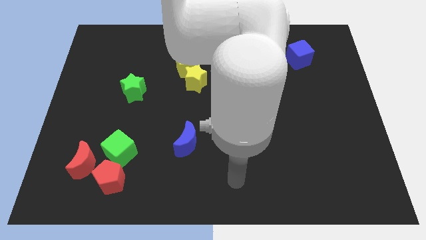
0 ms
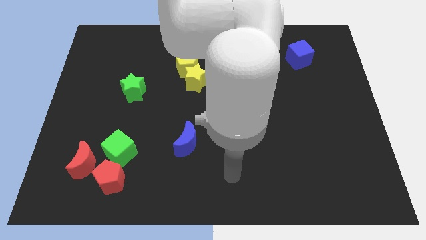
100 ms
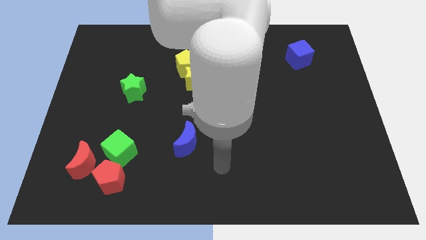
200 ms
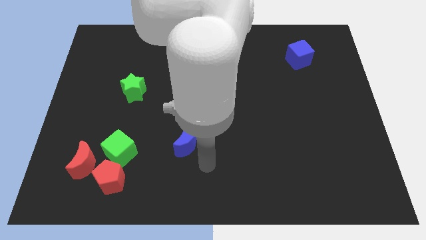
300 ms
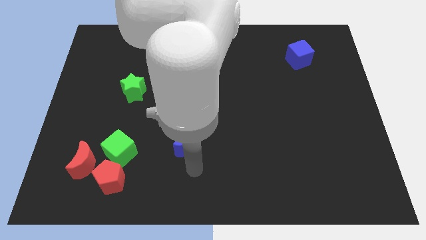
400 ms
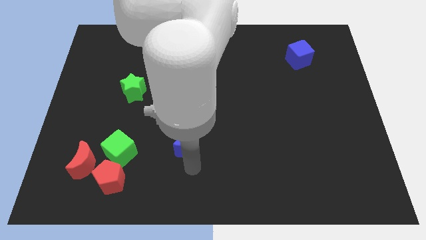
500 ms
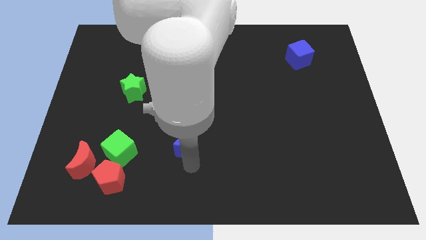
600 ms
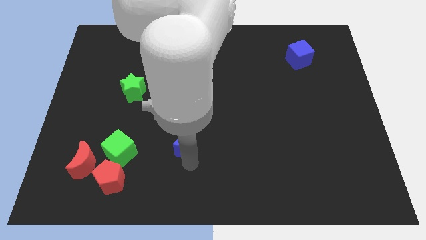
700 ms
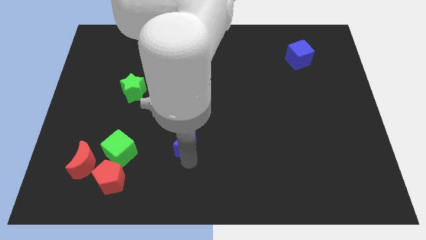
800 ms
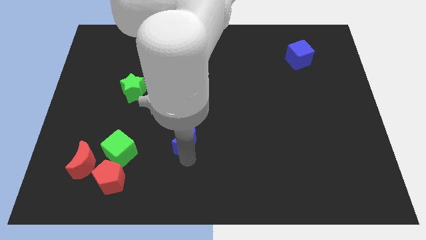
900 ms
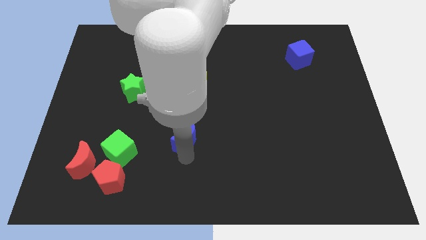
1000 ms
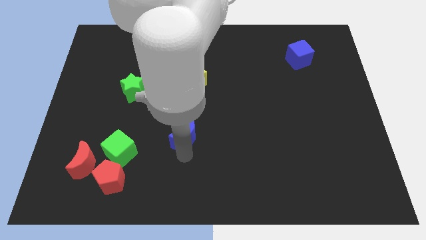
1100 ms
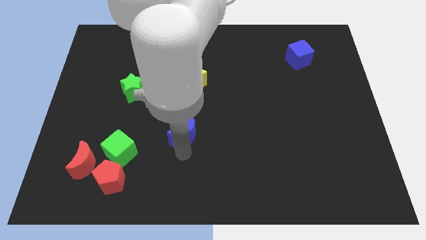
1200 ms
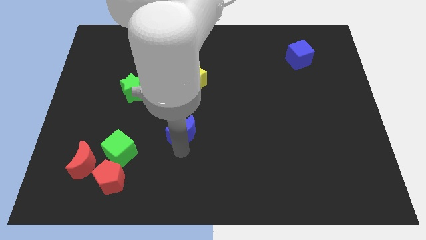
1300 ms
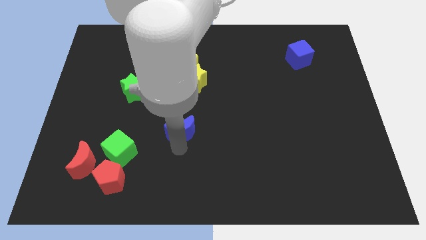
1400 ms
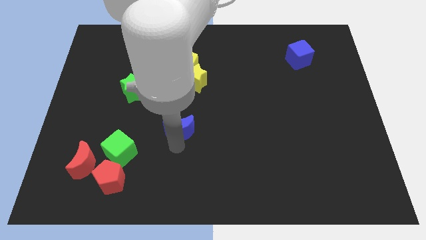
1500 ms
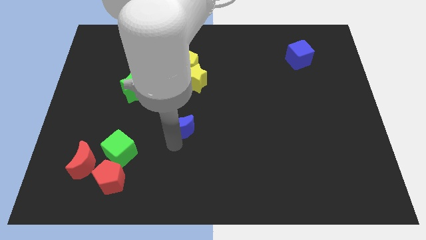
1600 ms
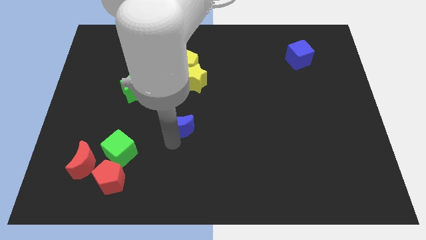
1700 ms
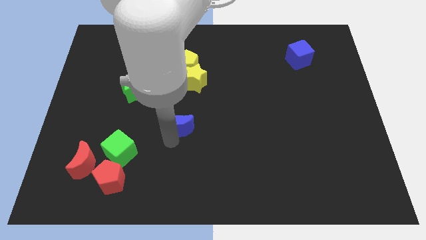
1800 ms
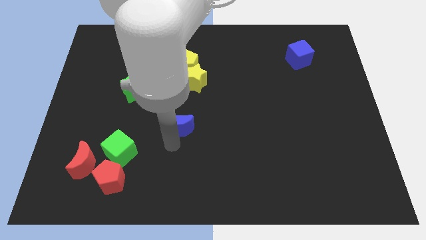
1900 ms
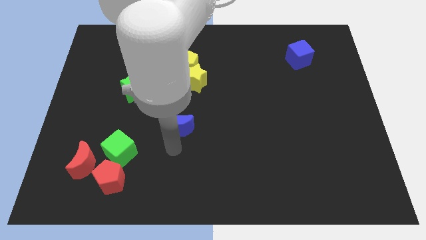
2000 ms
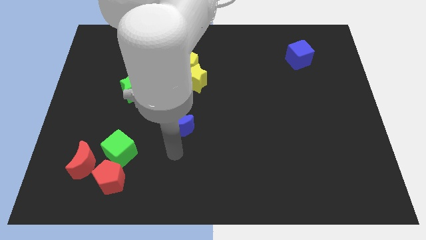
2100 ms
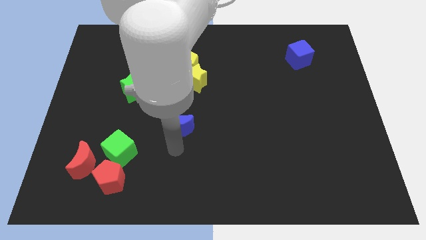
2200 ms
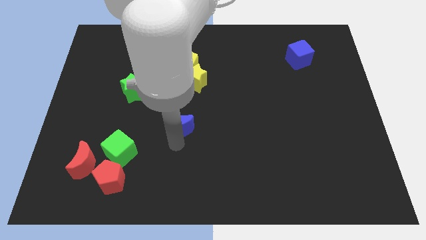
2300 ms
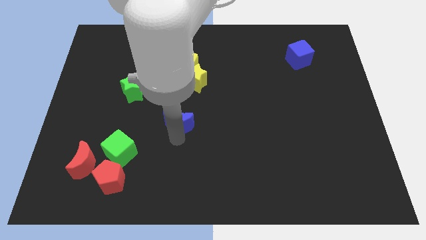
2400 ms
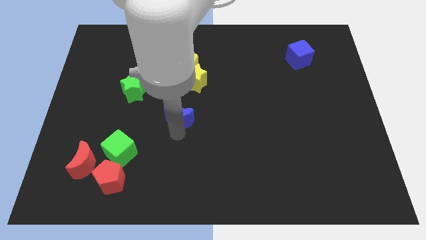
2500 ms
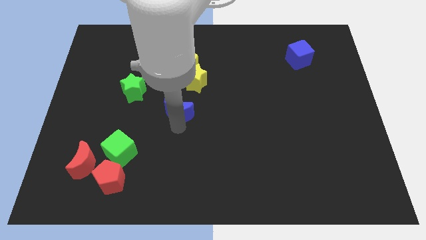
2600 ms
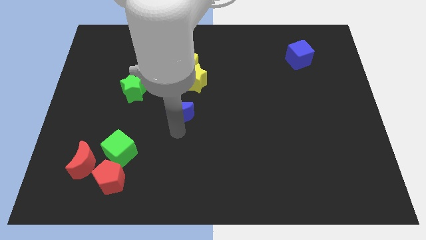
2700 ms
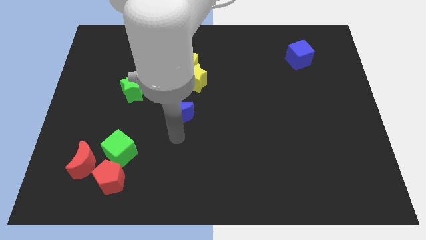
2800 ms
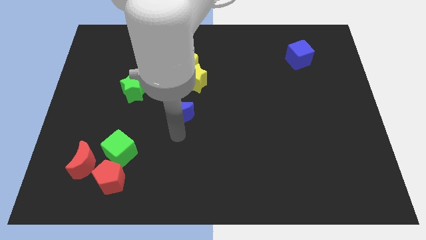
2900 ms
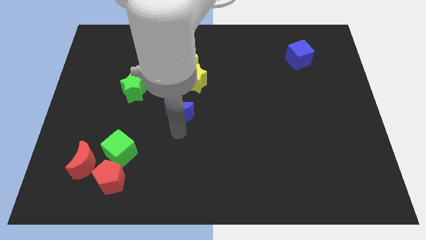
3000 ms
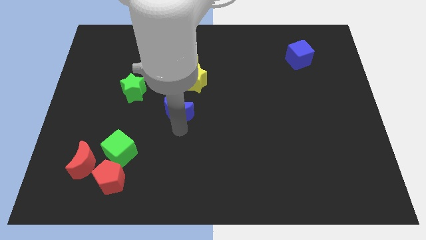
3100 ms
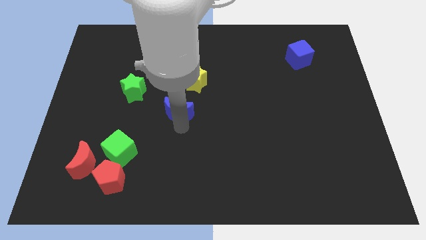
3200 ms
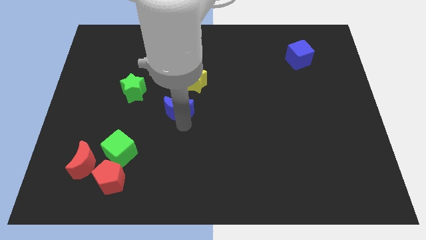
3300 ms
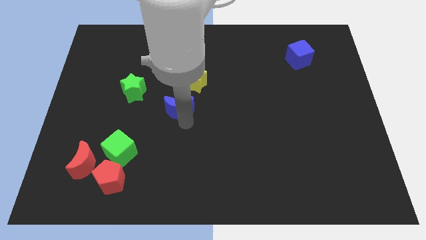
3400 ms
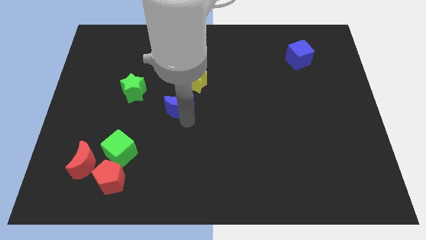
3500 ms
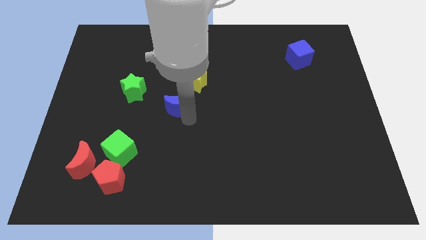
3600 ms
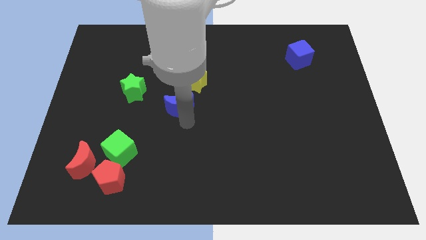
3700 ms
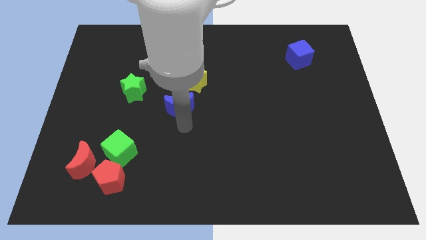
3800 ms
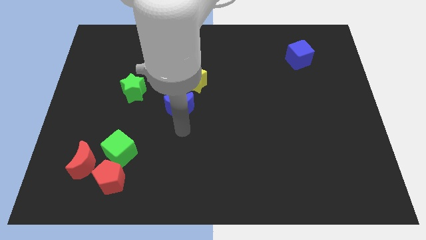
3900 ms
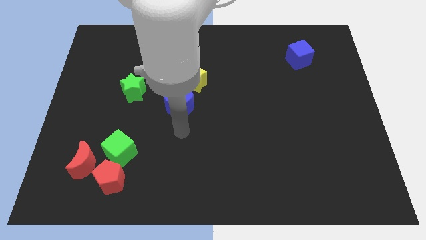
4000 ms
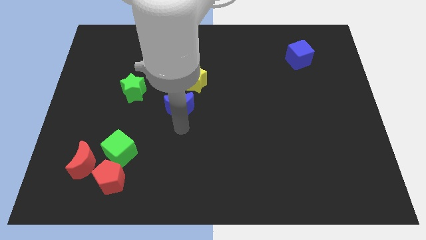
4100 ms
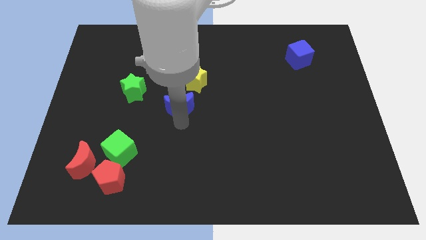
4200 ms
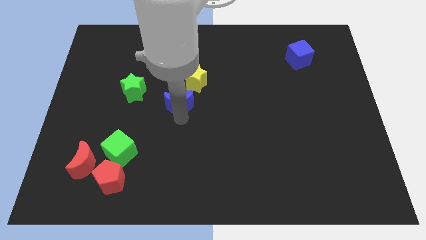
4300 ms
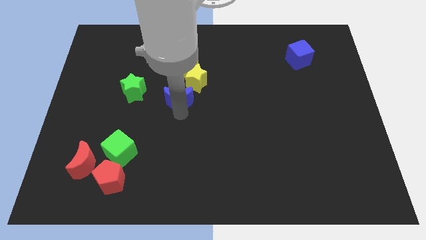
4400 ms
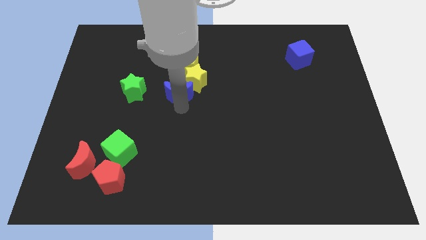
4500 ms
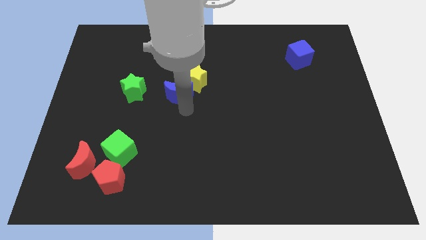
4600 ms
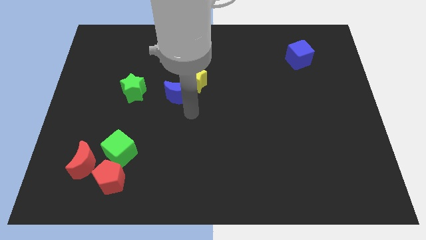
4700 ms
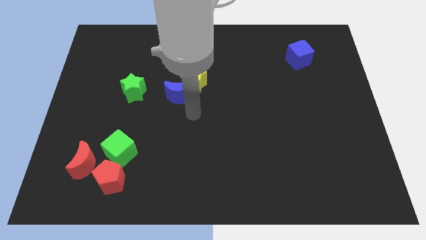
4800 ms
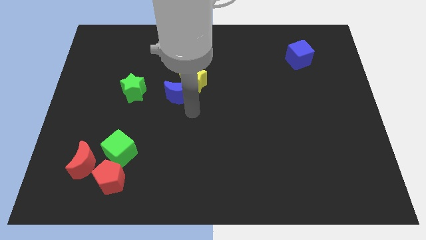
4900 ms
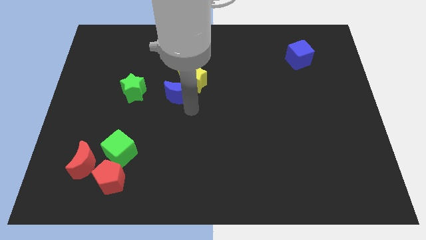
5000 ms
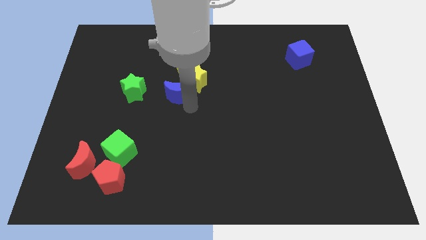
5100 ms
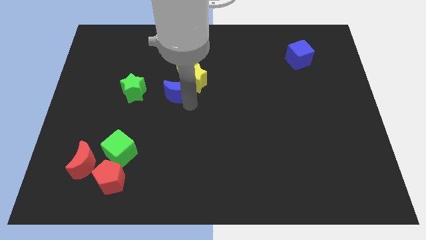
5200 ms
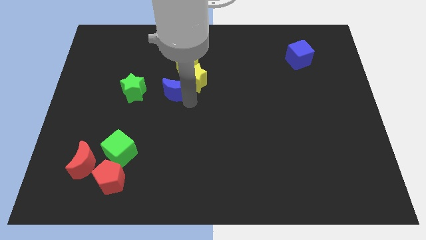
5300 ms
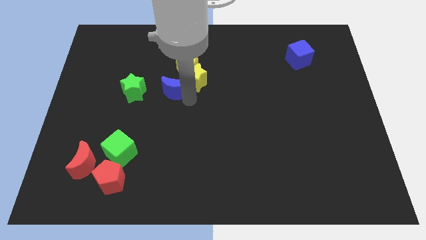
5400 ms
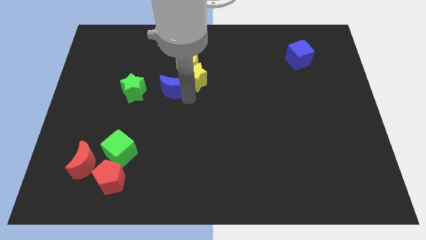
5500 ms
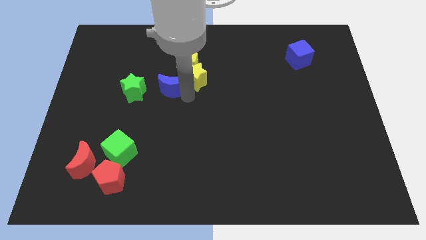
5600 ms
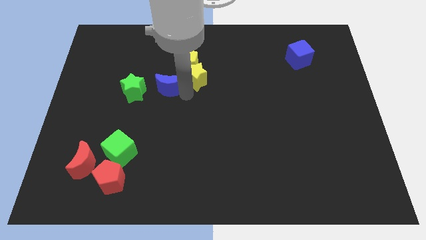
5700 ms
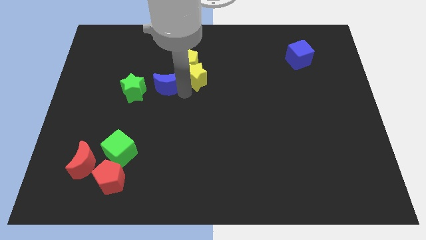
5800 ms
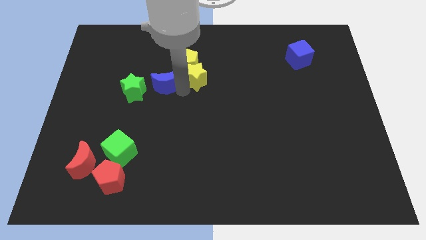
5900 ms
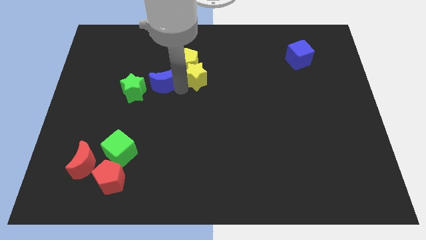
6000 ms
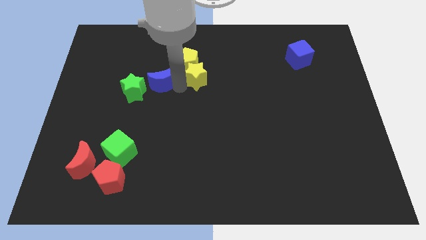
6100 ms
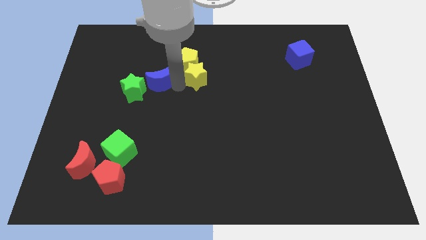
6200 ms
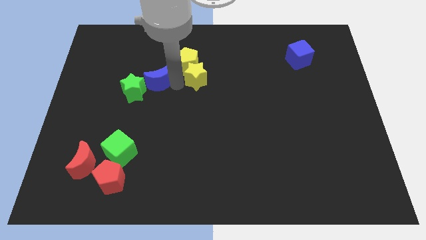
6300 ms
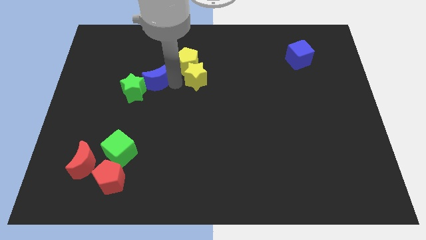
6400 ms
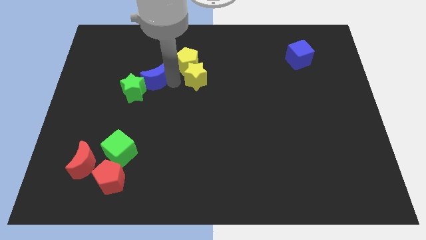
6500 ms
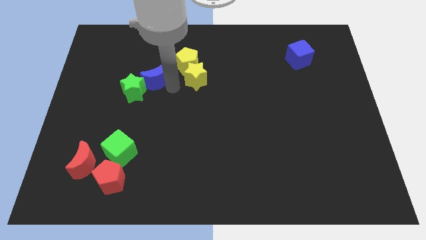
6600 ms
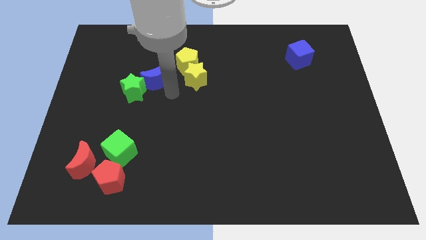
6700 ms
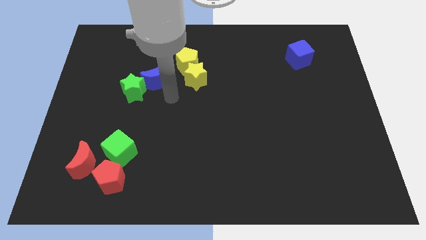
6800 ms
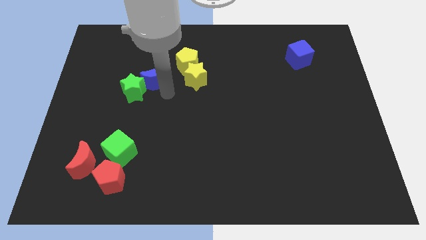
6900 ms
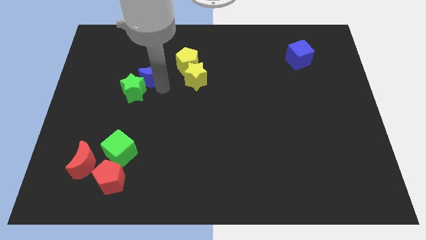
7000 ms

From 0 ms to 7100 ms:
slide the blue moon to the top side of the green star

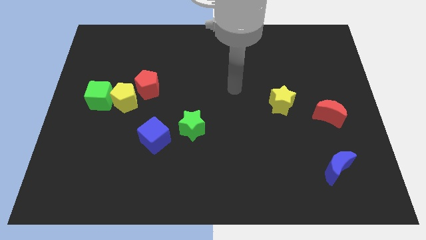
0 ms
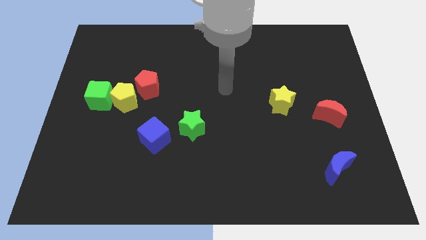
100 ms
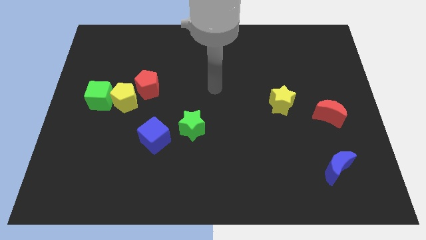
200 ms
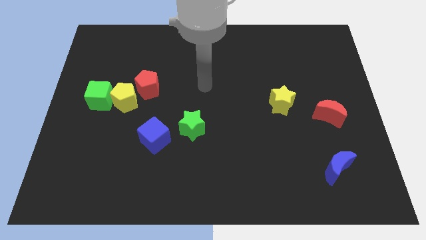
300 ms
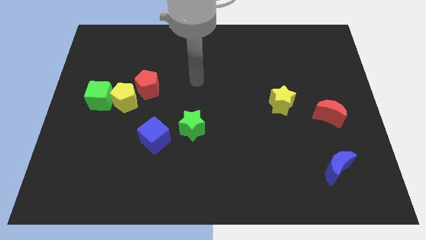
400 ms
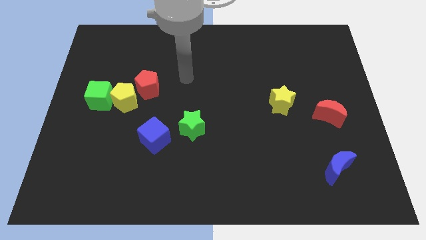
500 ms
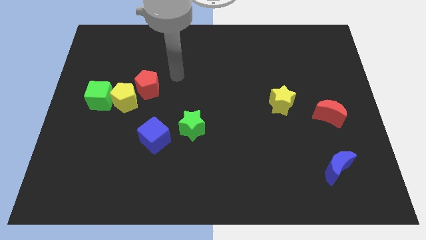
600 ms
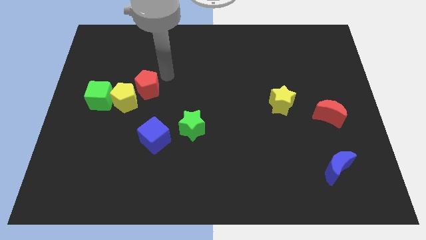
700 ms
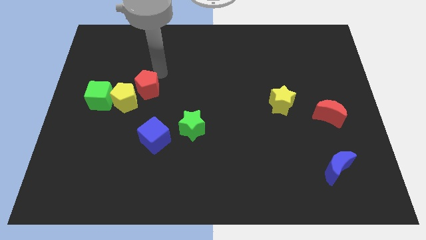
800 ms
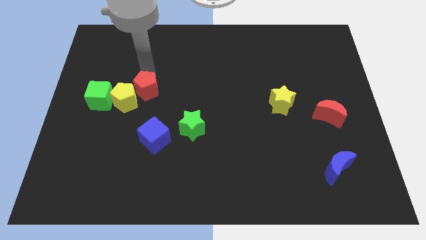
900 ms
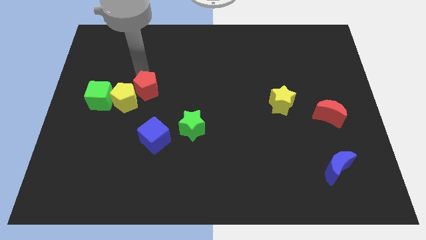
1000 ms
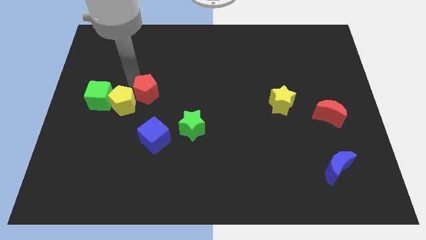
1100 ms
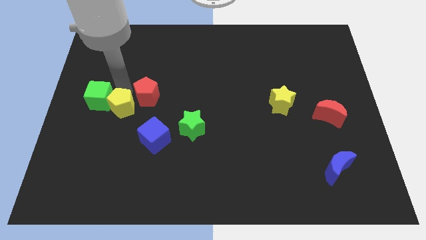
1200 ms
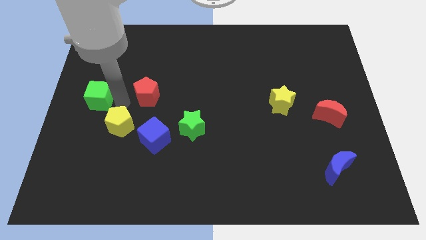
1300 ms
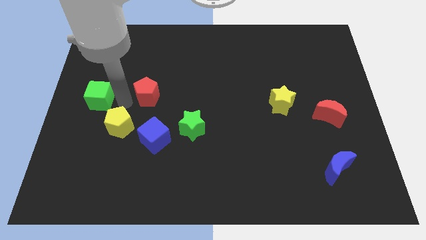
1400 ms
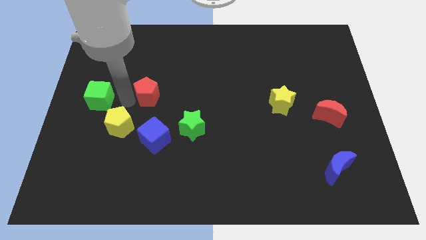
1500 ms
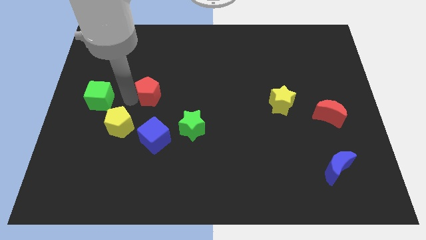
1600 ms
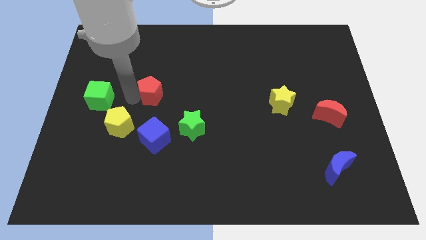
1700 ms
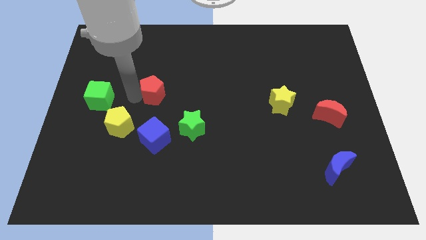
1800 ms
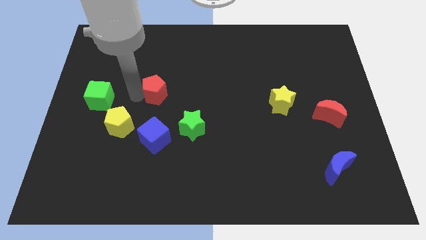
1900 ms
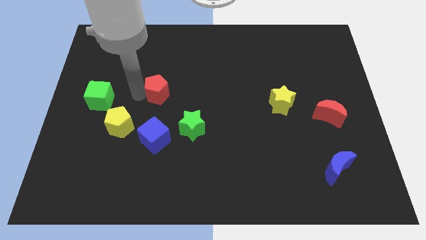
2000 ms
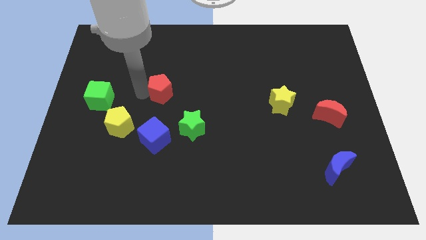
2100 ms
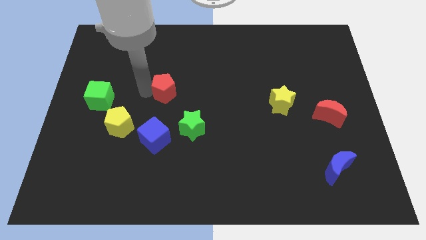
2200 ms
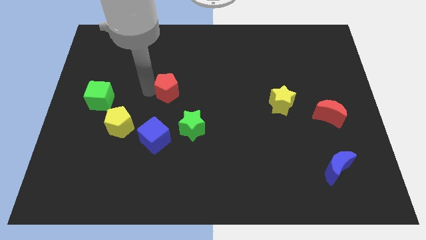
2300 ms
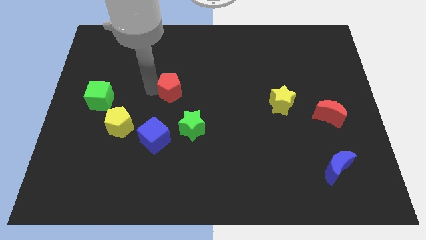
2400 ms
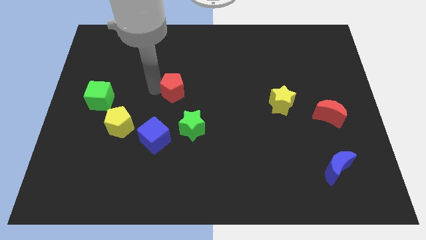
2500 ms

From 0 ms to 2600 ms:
put the red pentagon to the top side of the green star
